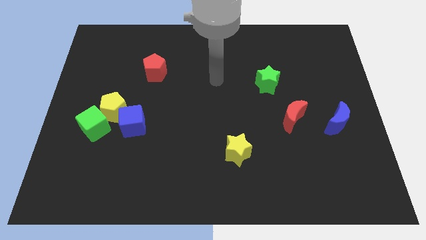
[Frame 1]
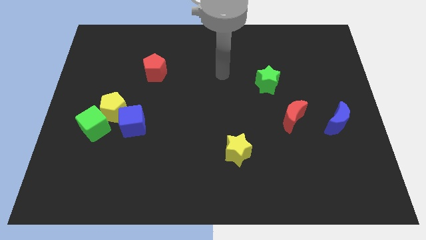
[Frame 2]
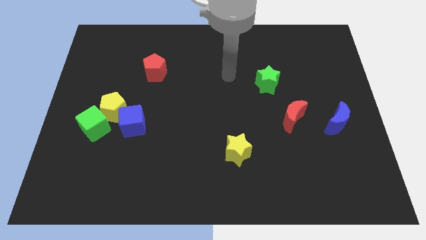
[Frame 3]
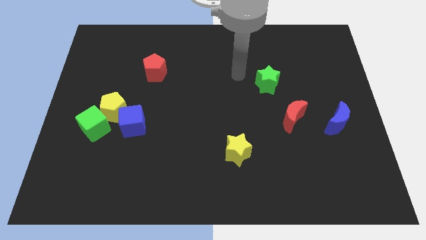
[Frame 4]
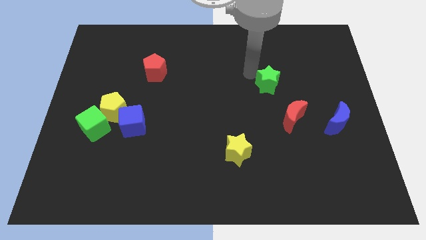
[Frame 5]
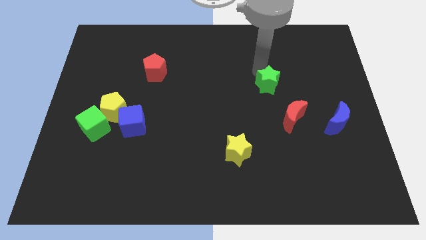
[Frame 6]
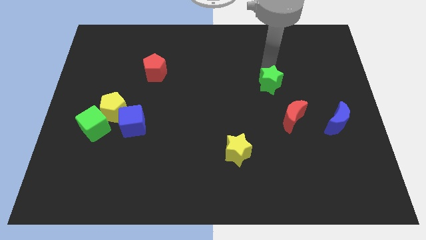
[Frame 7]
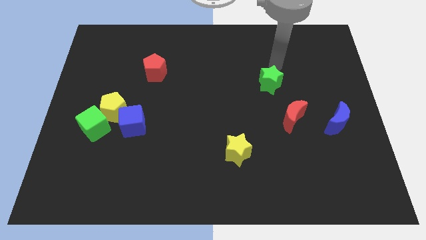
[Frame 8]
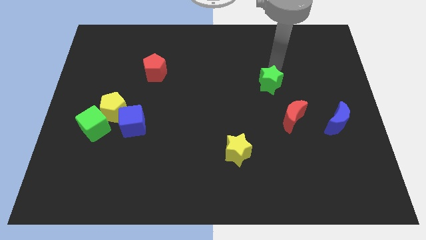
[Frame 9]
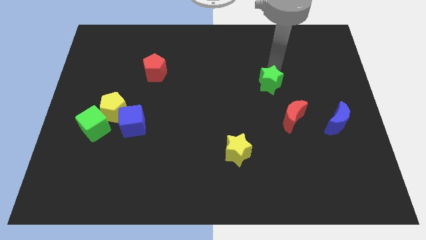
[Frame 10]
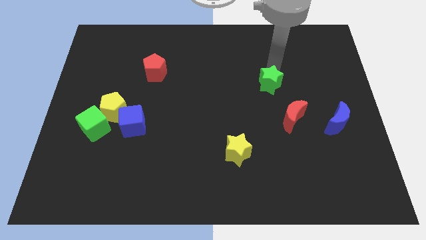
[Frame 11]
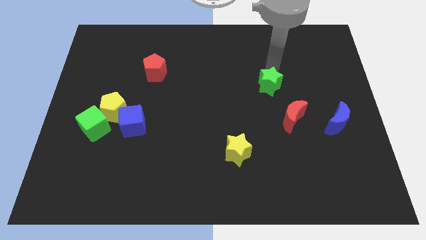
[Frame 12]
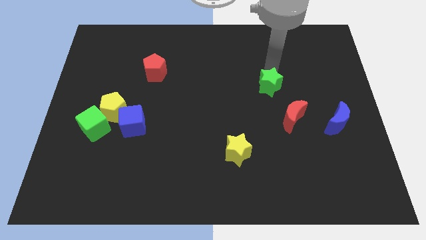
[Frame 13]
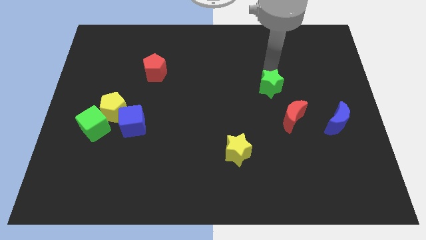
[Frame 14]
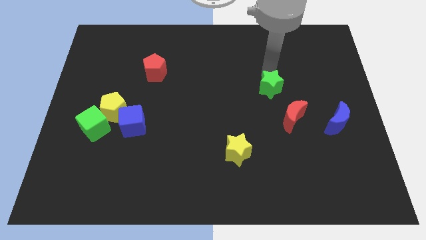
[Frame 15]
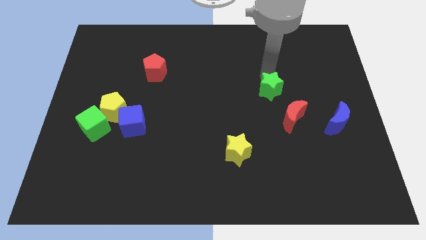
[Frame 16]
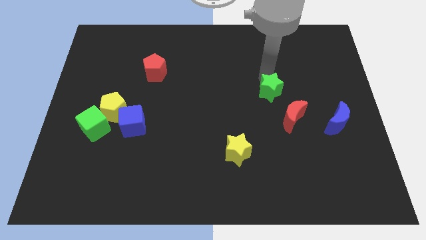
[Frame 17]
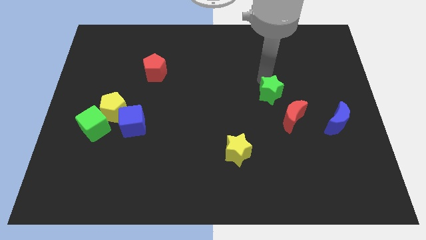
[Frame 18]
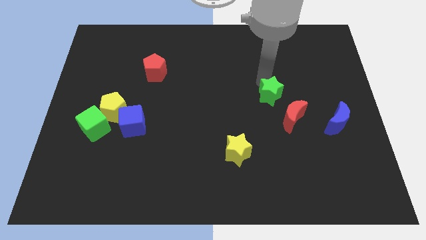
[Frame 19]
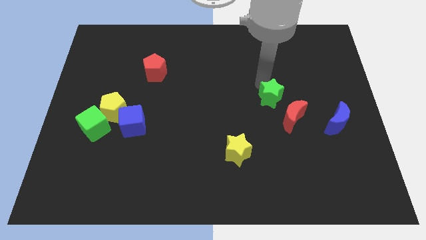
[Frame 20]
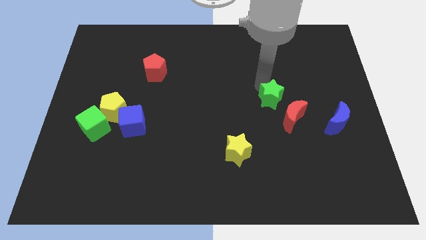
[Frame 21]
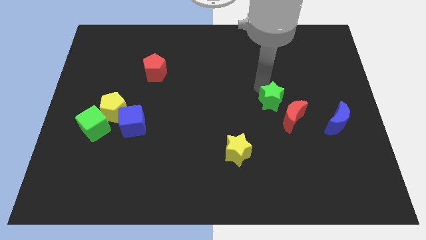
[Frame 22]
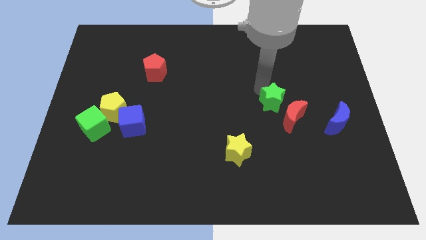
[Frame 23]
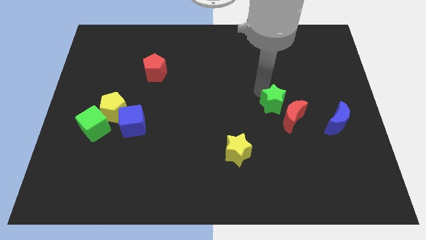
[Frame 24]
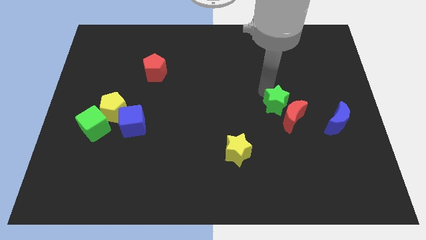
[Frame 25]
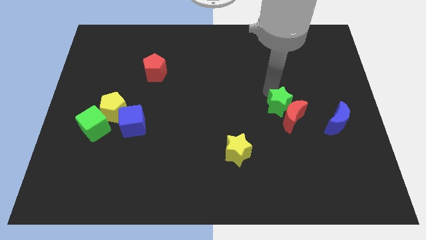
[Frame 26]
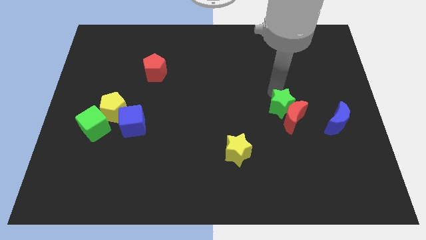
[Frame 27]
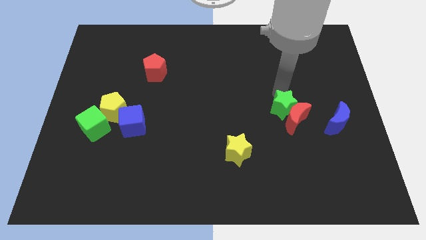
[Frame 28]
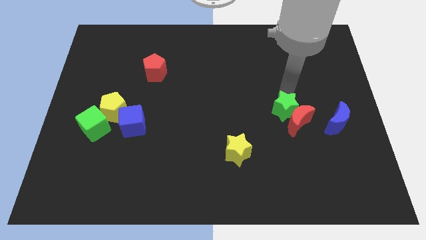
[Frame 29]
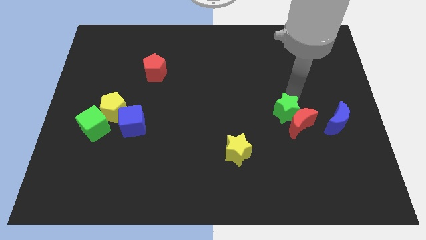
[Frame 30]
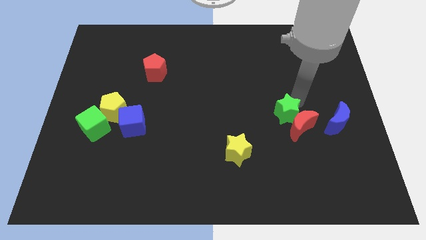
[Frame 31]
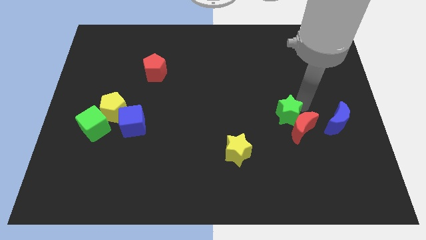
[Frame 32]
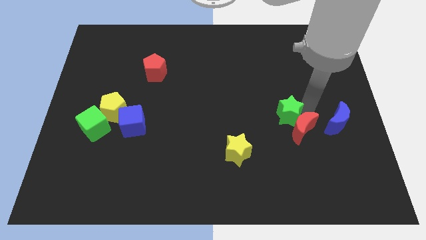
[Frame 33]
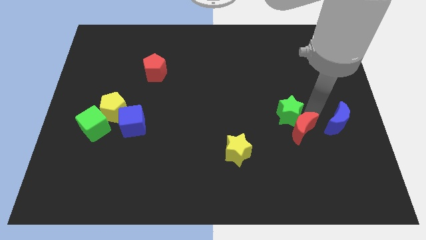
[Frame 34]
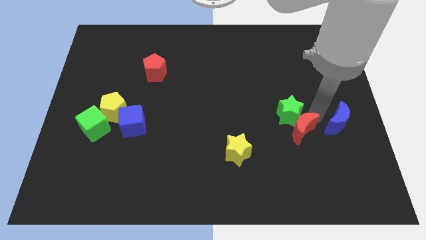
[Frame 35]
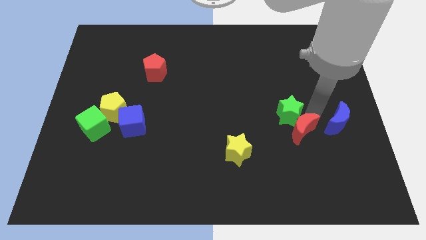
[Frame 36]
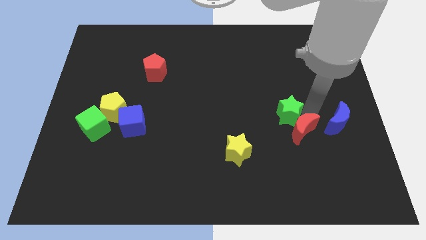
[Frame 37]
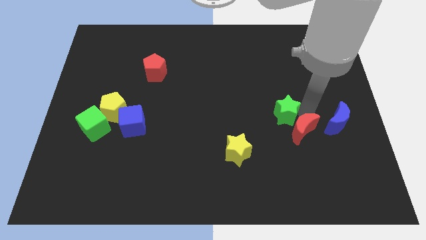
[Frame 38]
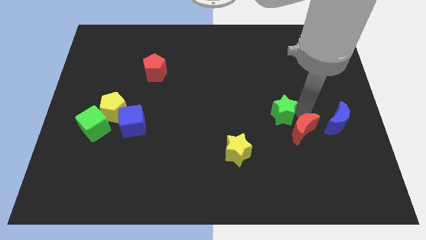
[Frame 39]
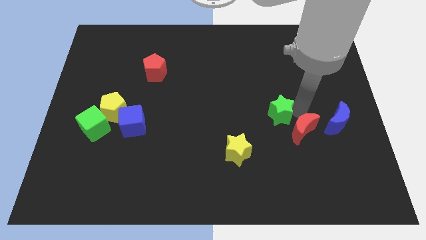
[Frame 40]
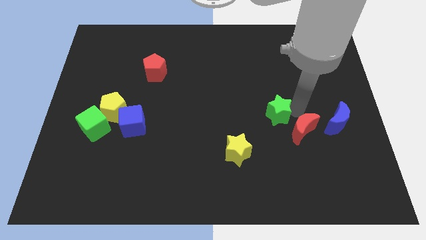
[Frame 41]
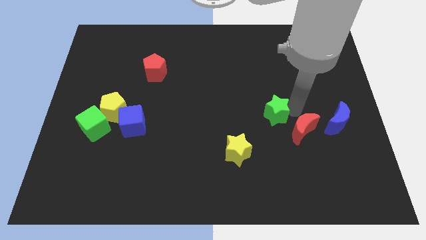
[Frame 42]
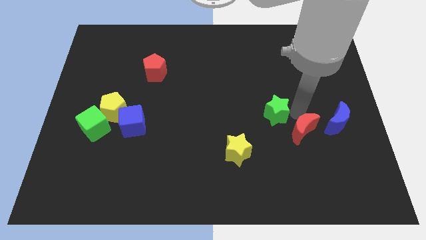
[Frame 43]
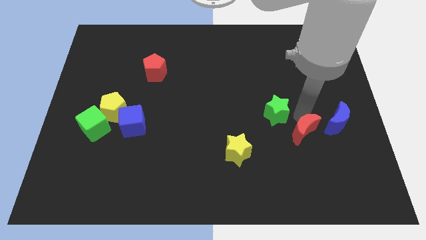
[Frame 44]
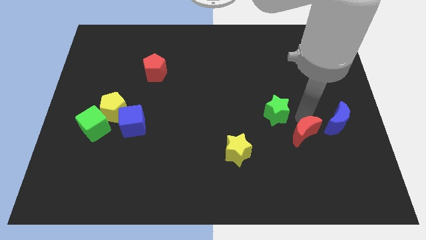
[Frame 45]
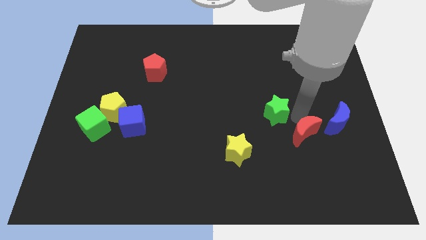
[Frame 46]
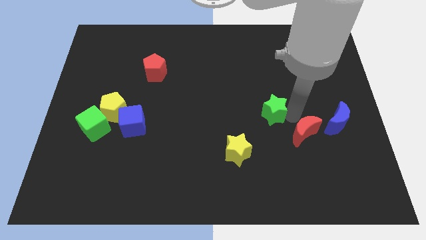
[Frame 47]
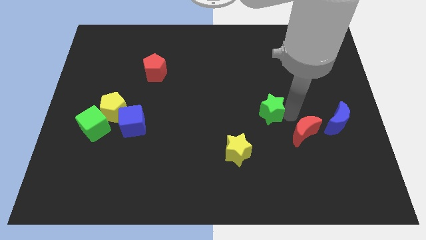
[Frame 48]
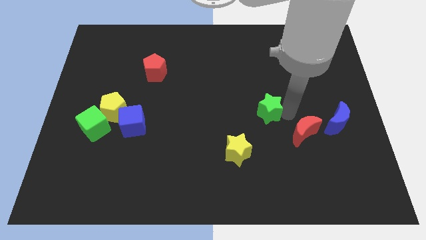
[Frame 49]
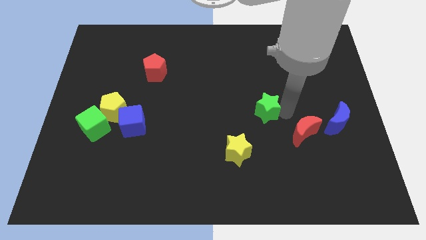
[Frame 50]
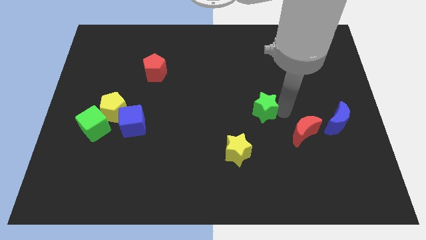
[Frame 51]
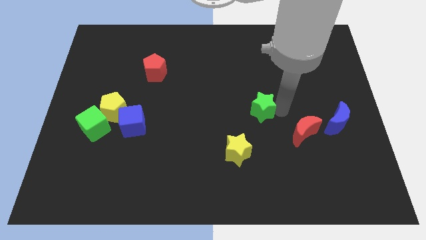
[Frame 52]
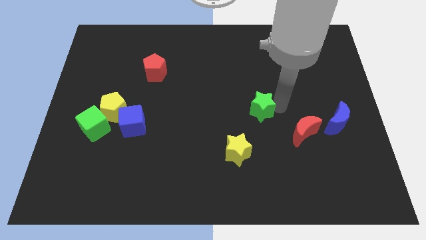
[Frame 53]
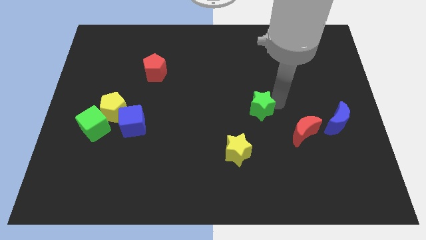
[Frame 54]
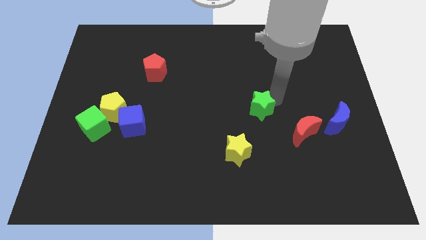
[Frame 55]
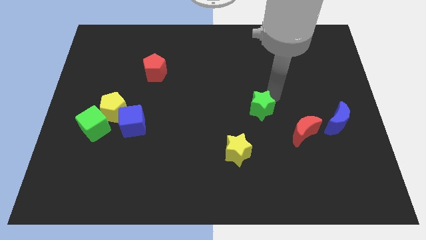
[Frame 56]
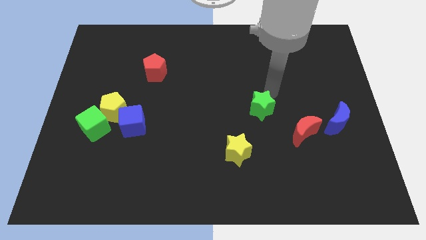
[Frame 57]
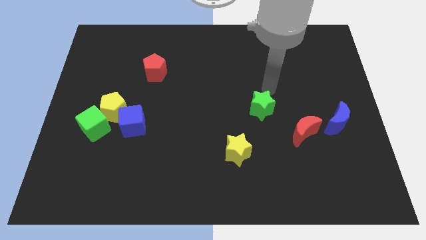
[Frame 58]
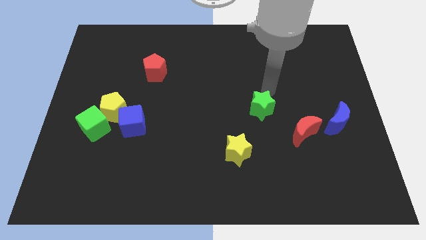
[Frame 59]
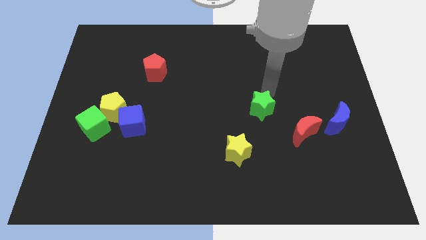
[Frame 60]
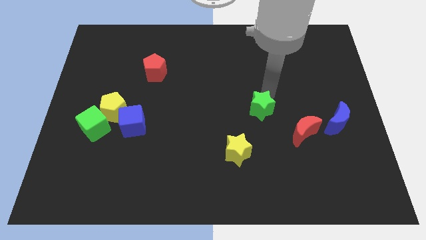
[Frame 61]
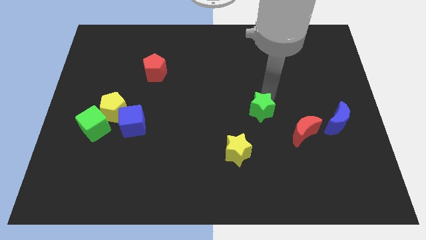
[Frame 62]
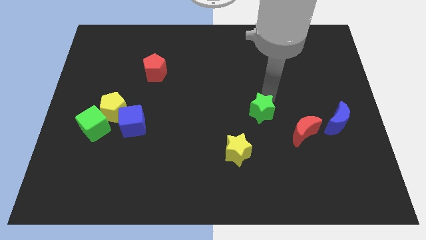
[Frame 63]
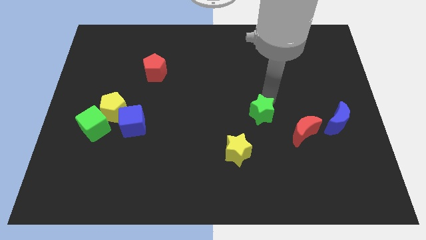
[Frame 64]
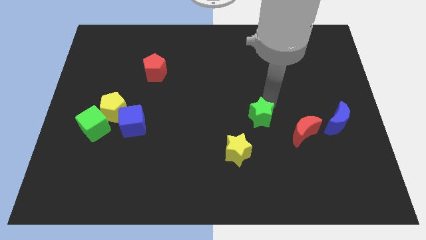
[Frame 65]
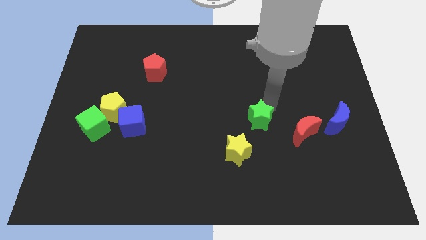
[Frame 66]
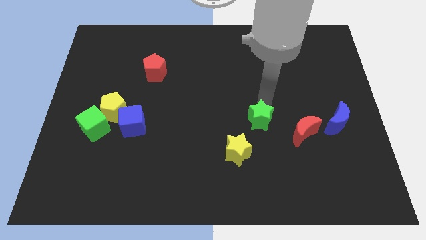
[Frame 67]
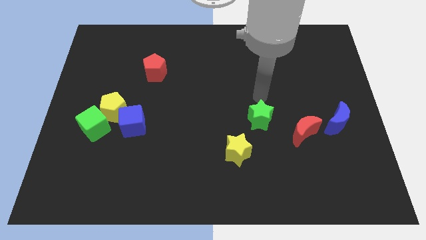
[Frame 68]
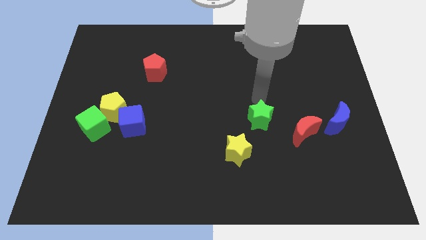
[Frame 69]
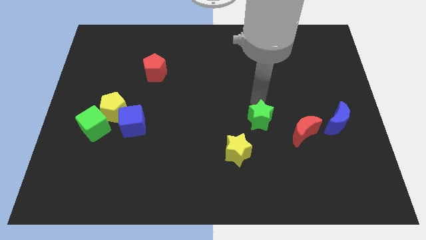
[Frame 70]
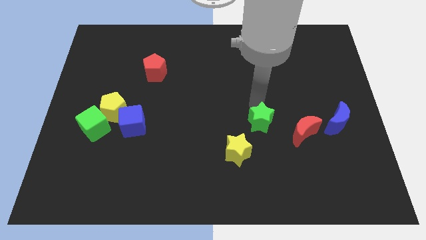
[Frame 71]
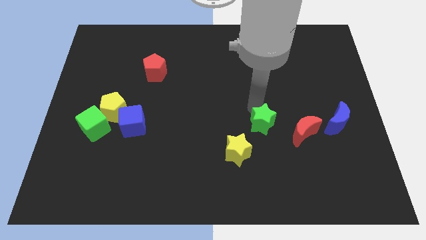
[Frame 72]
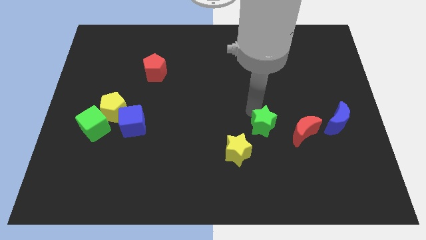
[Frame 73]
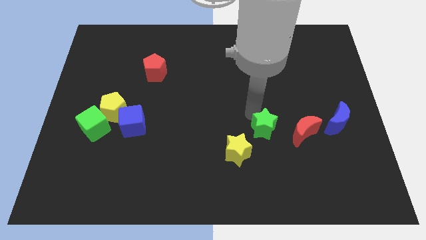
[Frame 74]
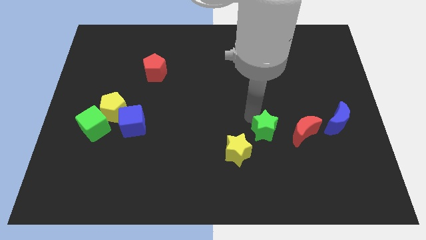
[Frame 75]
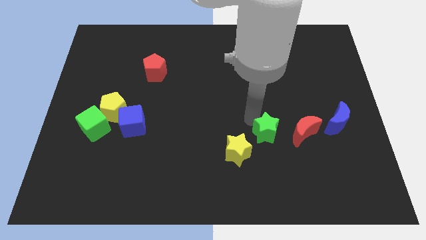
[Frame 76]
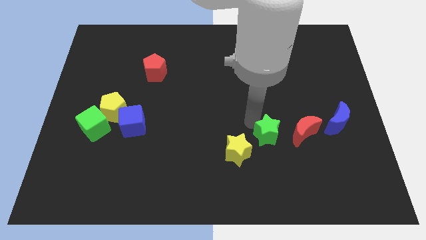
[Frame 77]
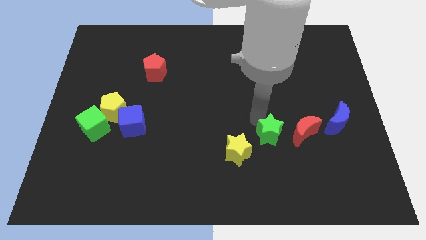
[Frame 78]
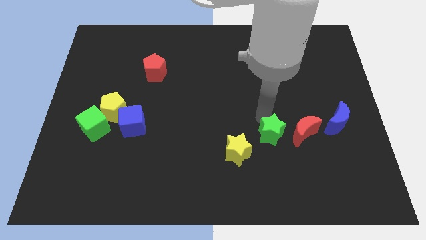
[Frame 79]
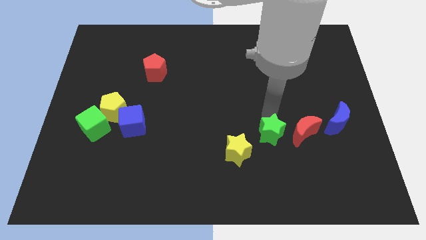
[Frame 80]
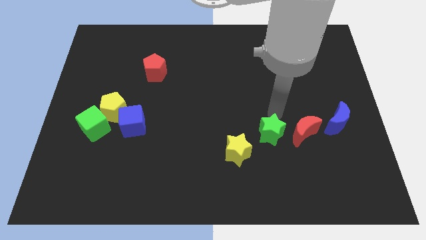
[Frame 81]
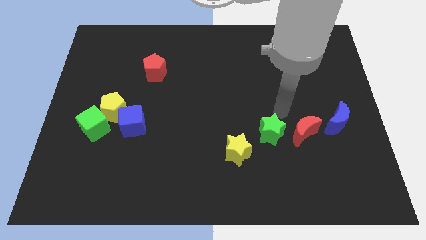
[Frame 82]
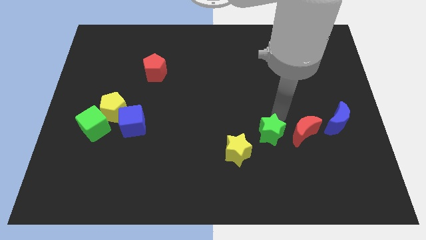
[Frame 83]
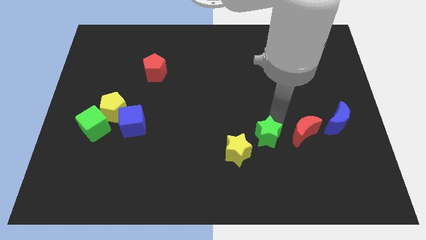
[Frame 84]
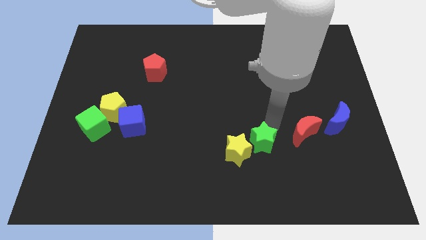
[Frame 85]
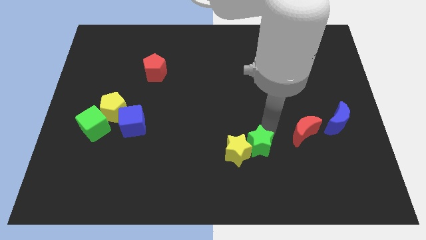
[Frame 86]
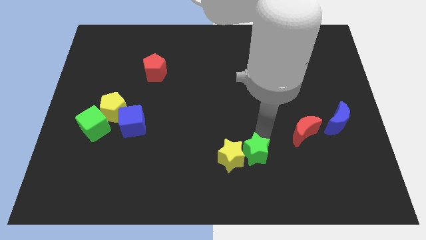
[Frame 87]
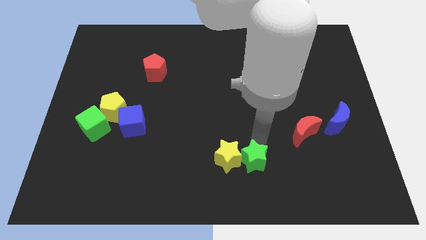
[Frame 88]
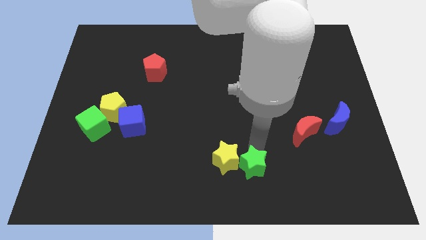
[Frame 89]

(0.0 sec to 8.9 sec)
push the green star to the bottom side
